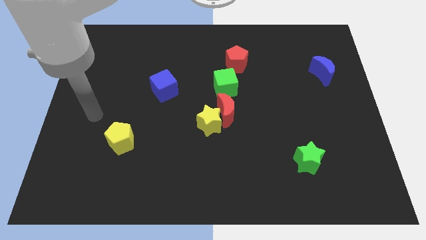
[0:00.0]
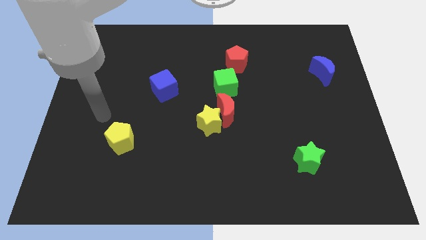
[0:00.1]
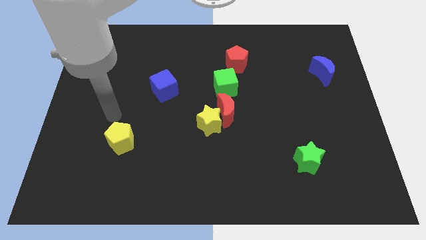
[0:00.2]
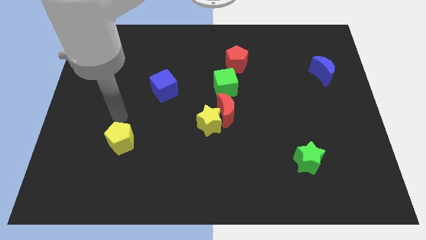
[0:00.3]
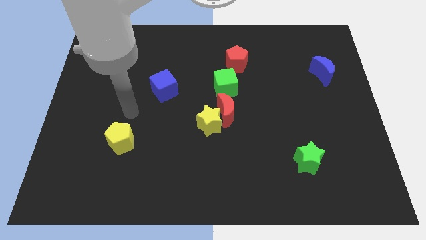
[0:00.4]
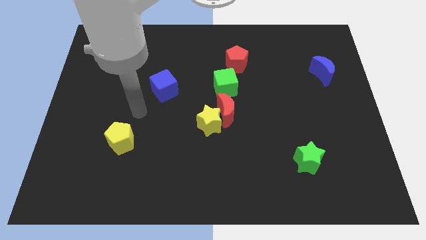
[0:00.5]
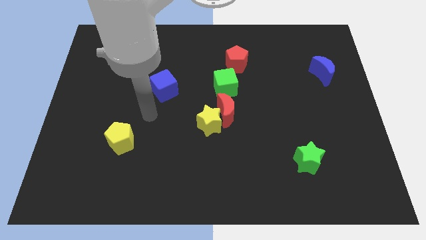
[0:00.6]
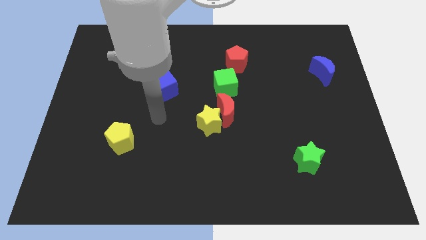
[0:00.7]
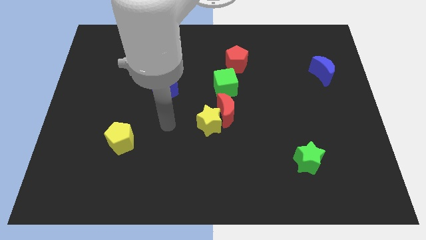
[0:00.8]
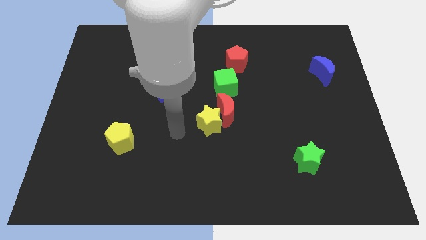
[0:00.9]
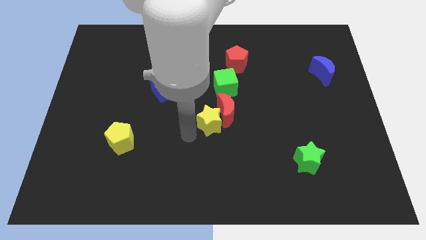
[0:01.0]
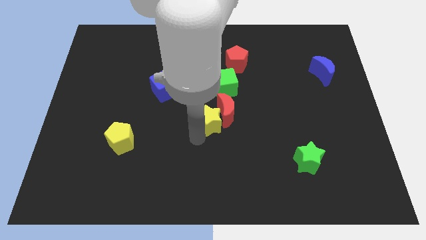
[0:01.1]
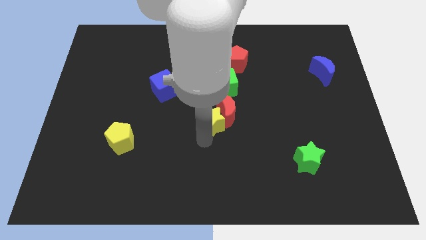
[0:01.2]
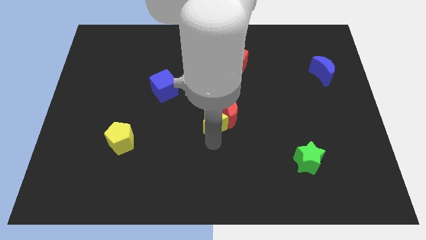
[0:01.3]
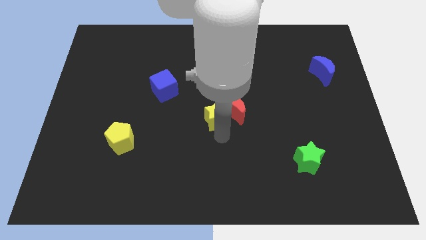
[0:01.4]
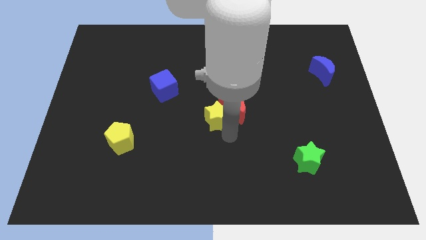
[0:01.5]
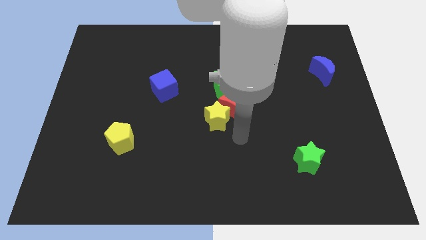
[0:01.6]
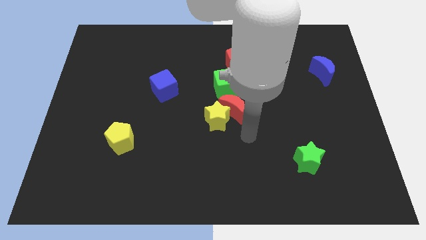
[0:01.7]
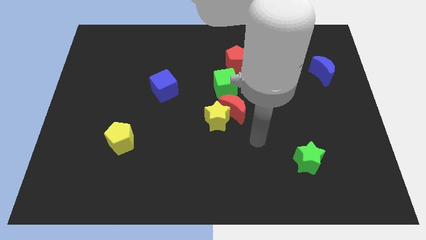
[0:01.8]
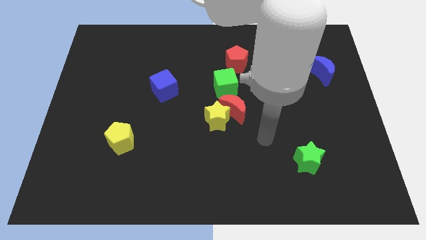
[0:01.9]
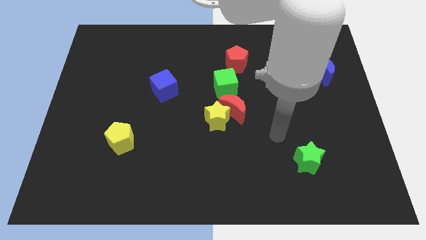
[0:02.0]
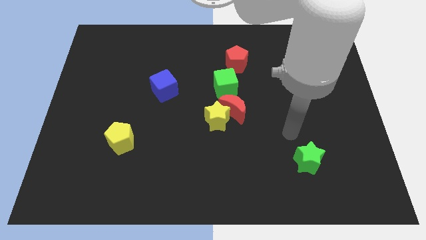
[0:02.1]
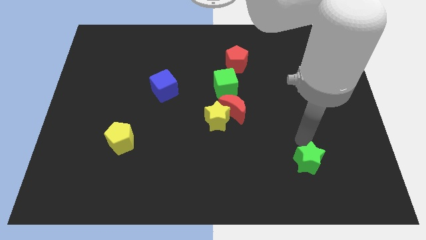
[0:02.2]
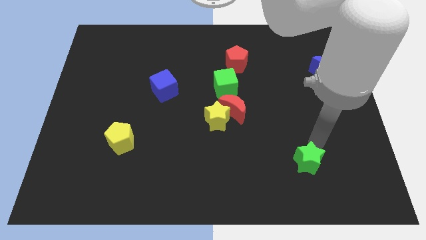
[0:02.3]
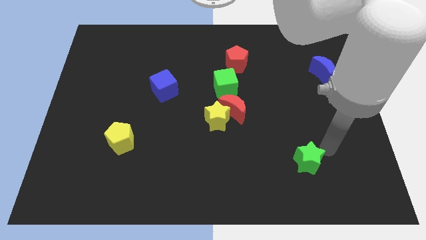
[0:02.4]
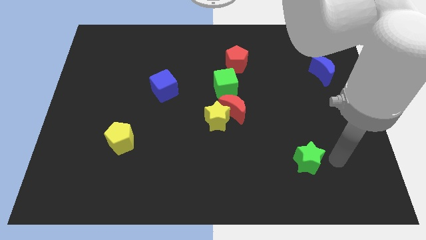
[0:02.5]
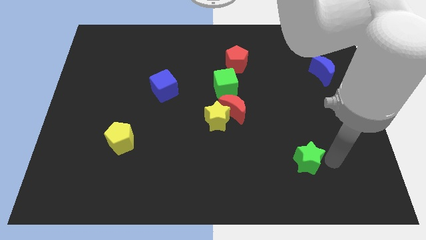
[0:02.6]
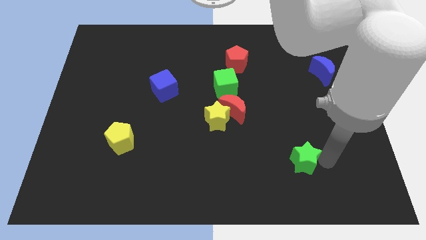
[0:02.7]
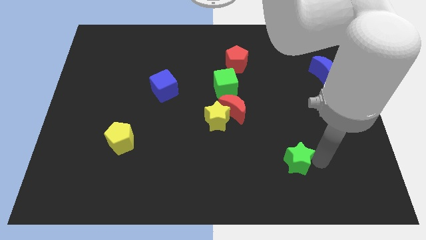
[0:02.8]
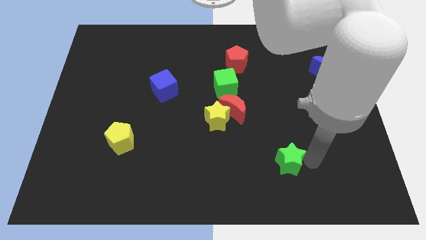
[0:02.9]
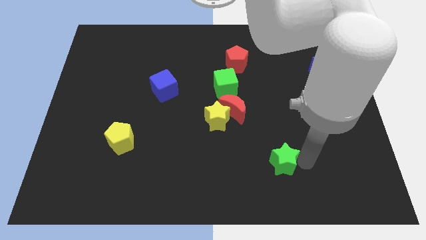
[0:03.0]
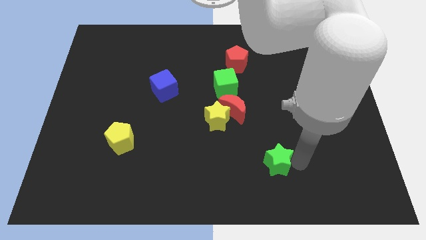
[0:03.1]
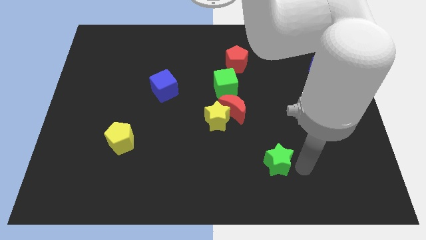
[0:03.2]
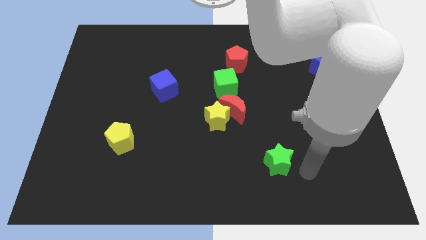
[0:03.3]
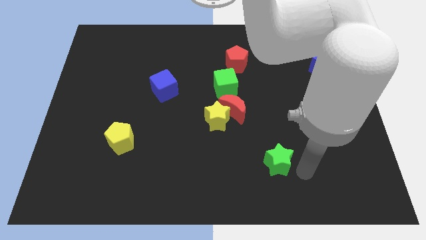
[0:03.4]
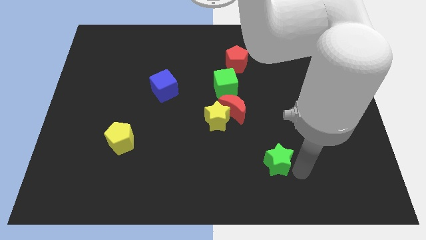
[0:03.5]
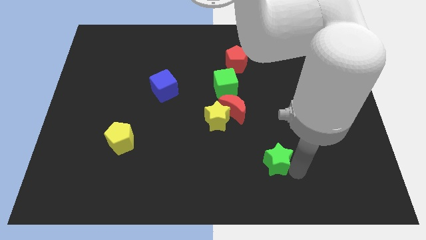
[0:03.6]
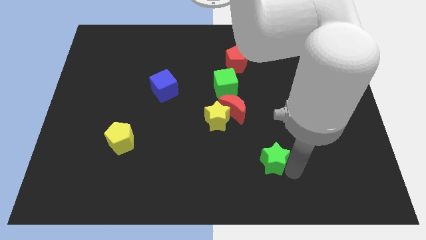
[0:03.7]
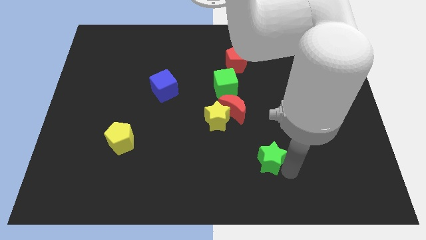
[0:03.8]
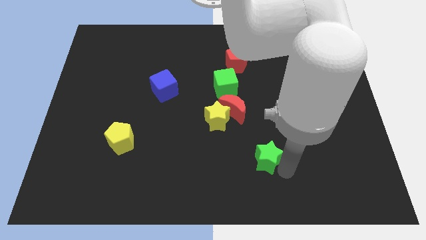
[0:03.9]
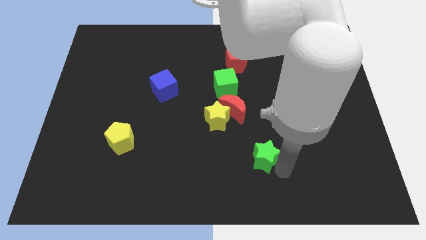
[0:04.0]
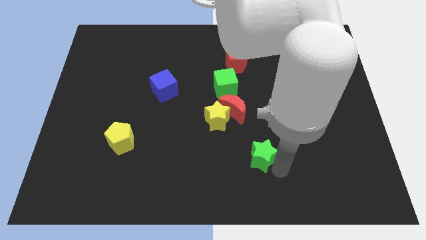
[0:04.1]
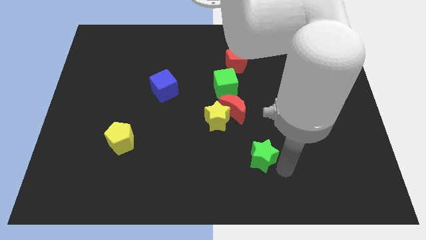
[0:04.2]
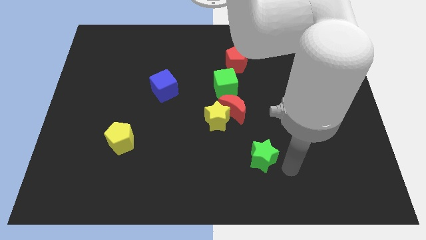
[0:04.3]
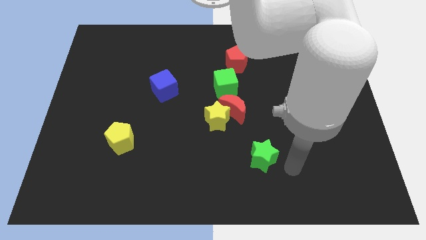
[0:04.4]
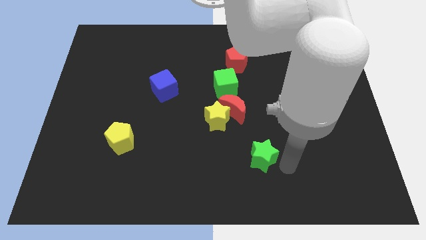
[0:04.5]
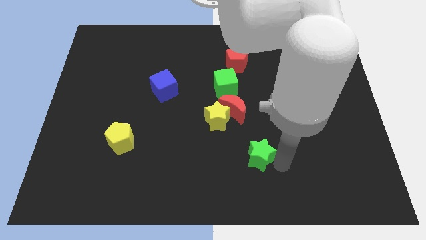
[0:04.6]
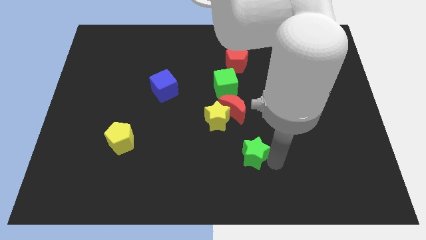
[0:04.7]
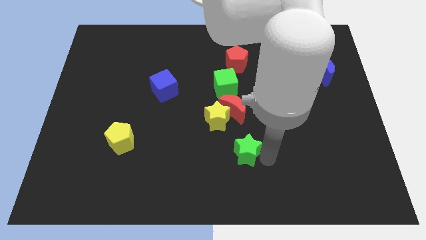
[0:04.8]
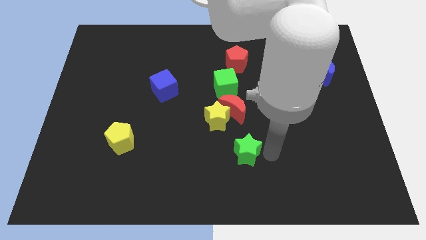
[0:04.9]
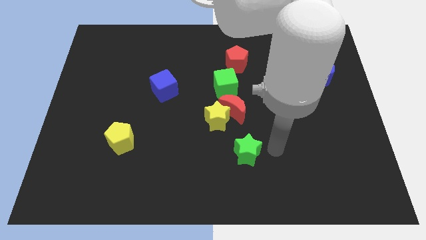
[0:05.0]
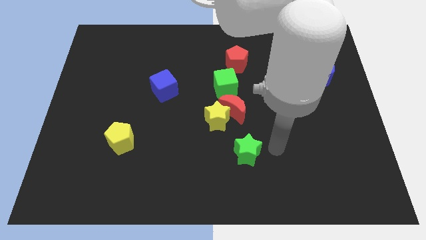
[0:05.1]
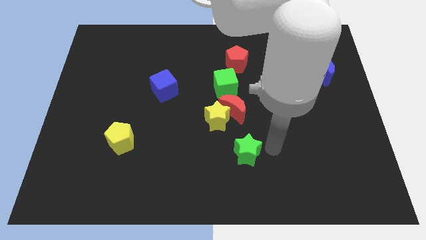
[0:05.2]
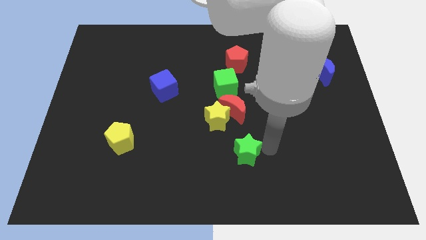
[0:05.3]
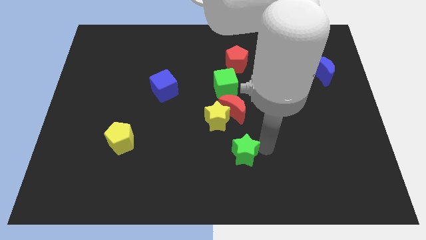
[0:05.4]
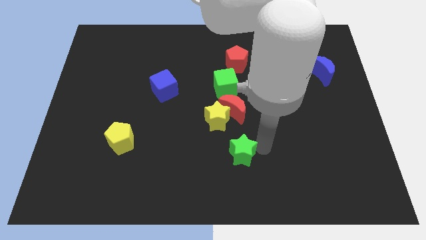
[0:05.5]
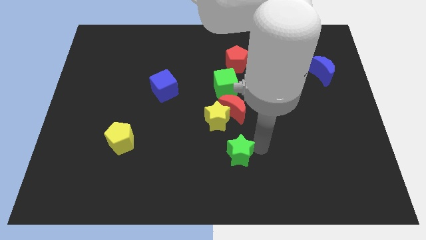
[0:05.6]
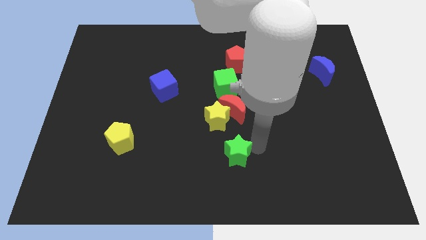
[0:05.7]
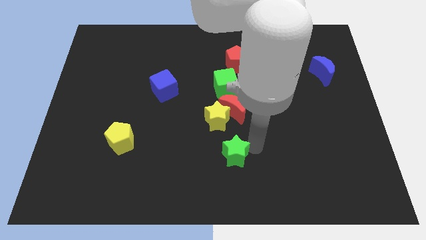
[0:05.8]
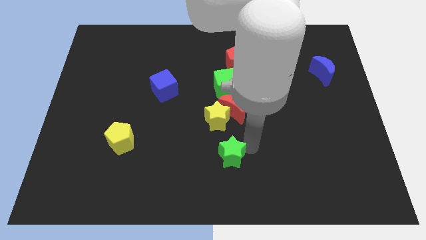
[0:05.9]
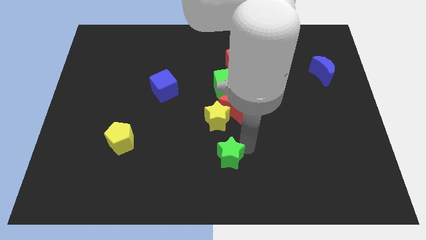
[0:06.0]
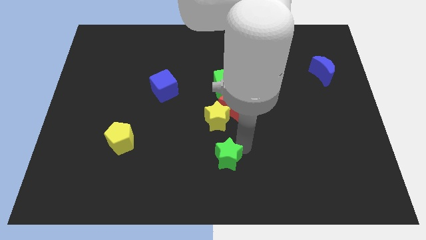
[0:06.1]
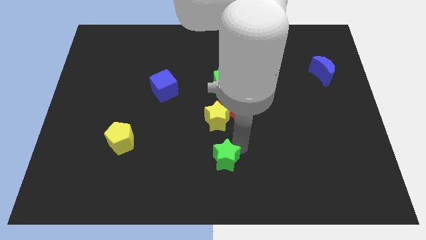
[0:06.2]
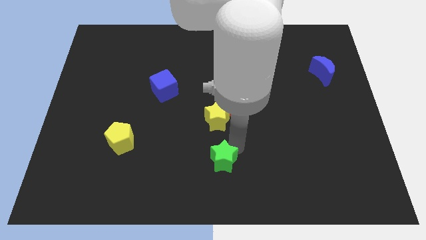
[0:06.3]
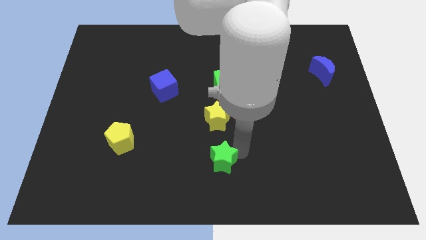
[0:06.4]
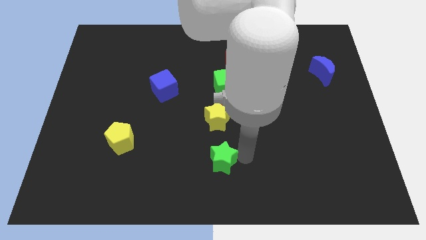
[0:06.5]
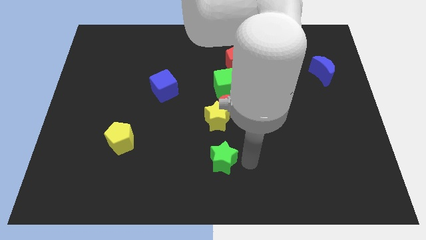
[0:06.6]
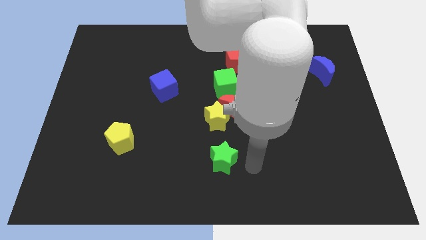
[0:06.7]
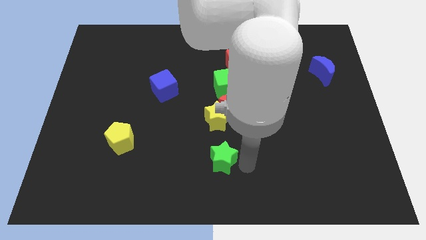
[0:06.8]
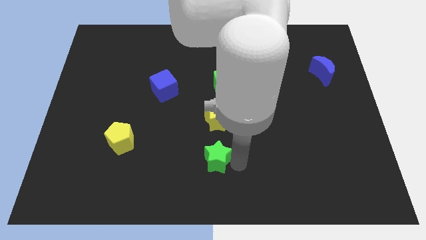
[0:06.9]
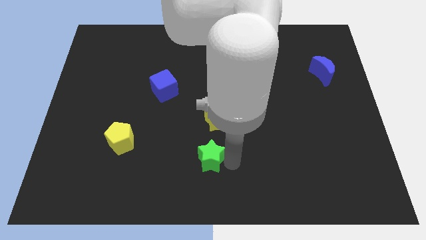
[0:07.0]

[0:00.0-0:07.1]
move the green star left

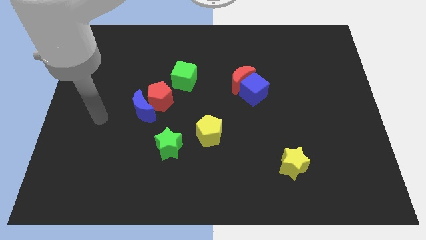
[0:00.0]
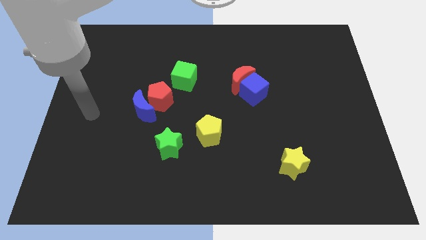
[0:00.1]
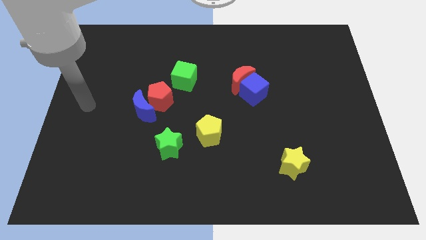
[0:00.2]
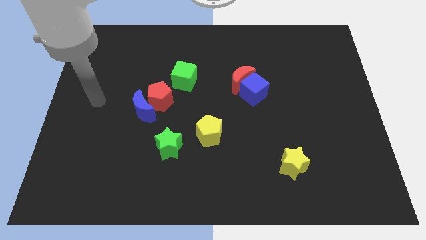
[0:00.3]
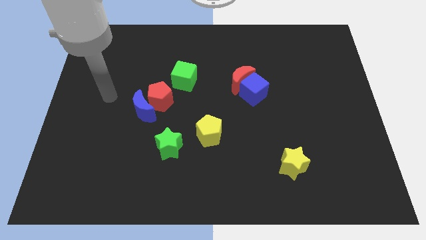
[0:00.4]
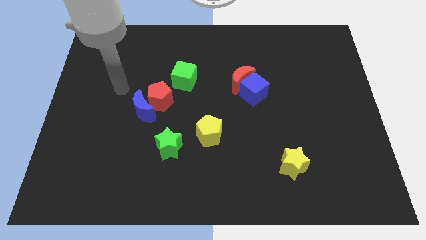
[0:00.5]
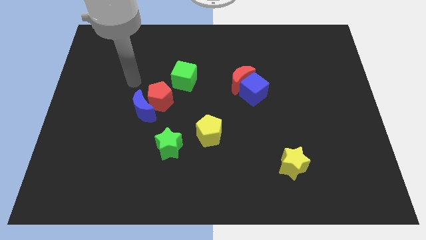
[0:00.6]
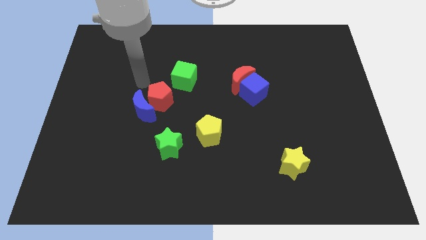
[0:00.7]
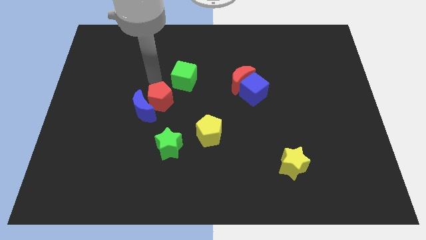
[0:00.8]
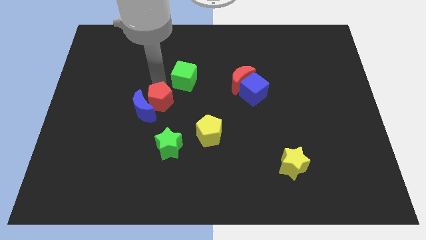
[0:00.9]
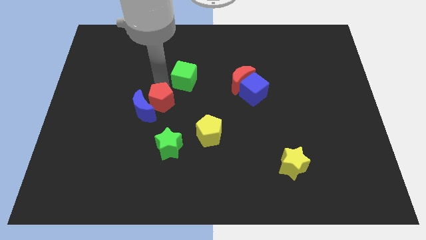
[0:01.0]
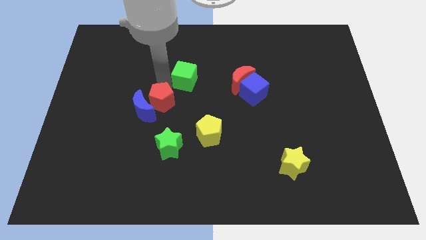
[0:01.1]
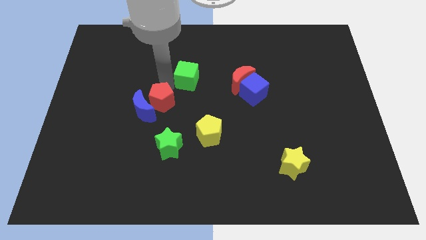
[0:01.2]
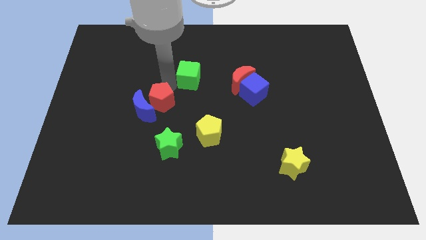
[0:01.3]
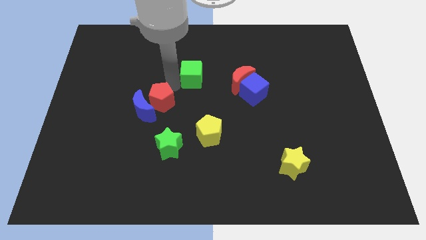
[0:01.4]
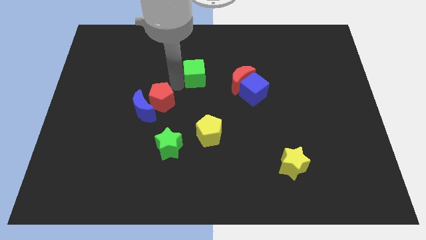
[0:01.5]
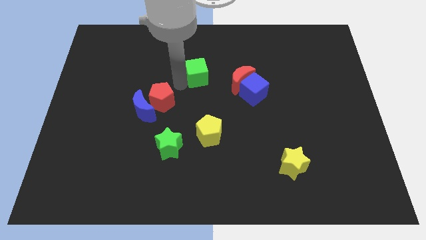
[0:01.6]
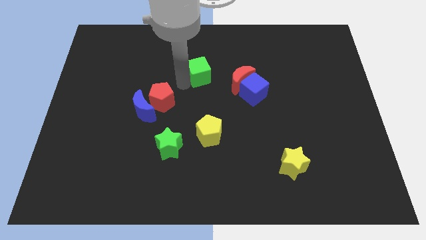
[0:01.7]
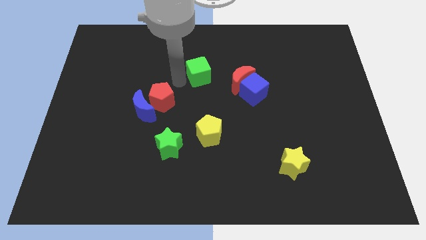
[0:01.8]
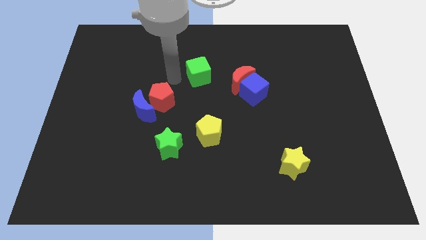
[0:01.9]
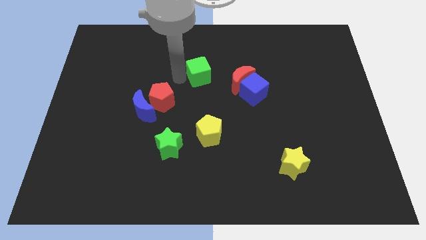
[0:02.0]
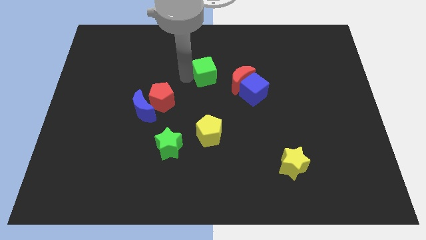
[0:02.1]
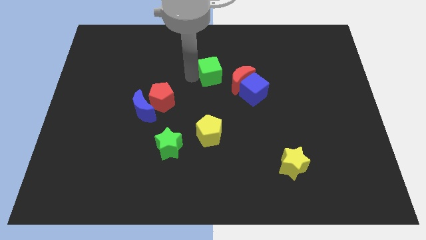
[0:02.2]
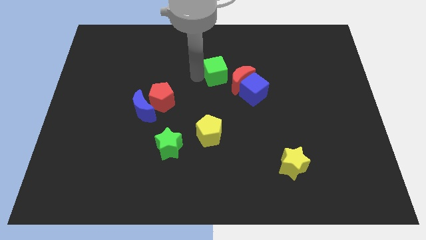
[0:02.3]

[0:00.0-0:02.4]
slightly push the green cube right
